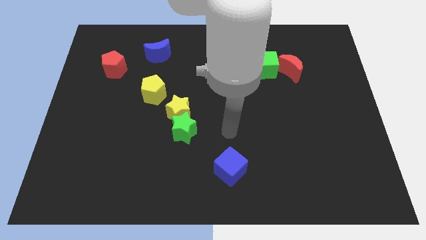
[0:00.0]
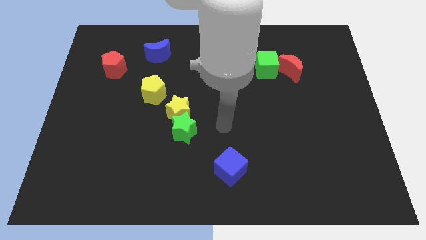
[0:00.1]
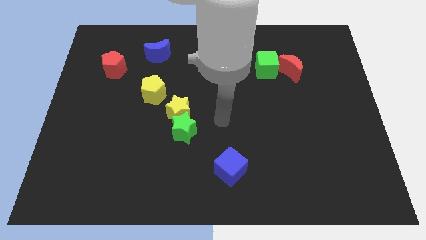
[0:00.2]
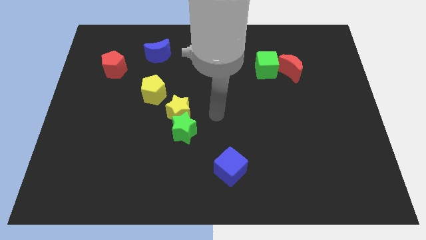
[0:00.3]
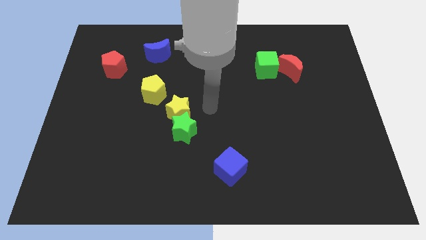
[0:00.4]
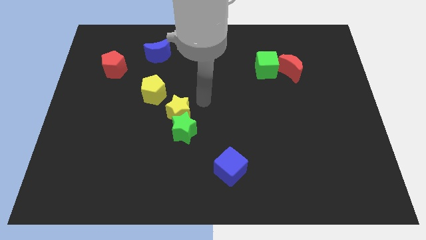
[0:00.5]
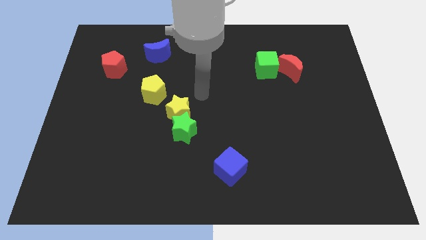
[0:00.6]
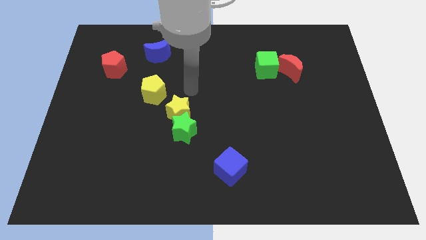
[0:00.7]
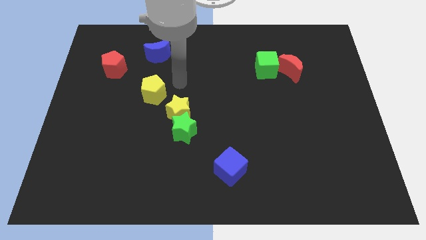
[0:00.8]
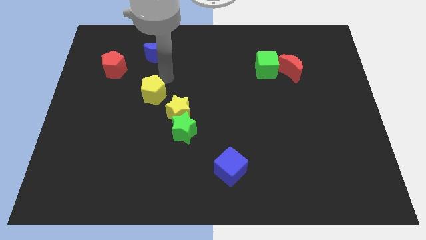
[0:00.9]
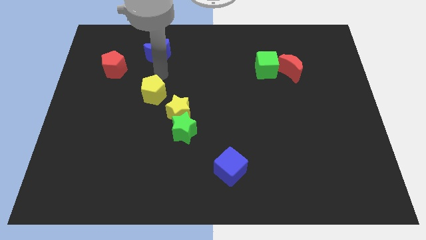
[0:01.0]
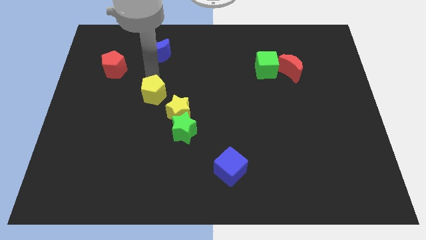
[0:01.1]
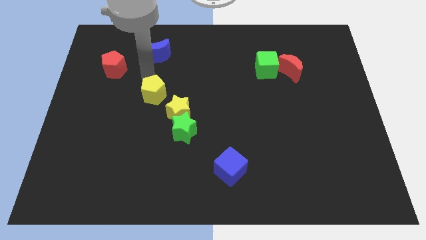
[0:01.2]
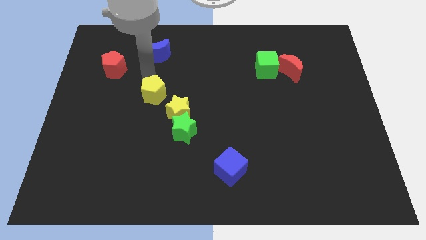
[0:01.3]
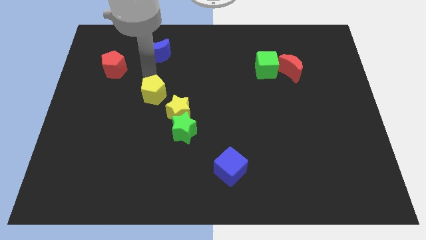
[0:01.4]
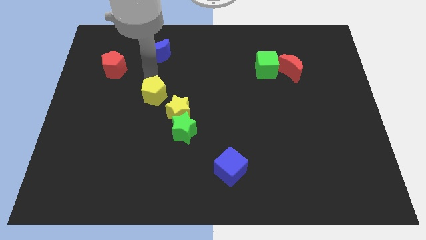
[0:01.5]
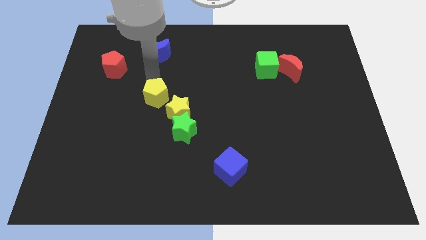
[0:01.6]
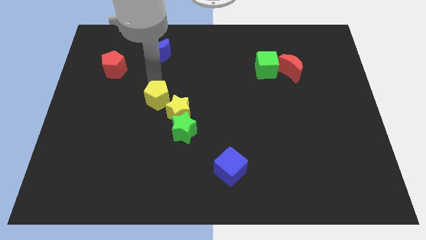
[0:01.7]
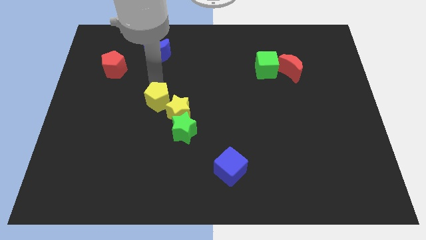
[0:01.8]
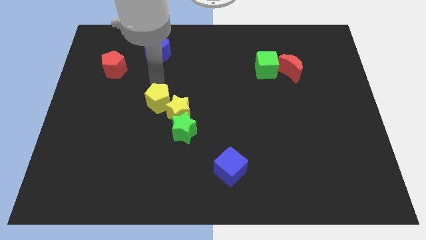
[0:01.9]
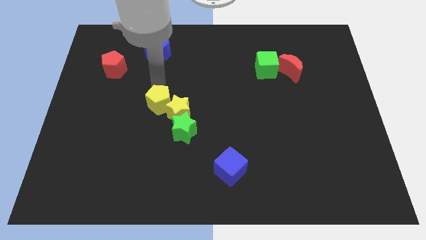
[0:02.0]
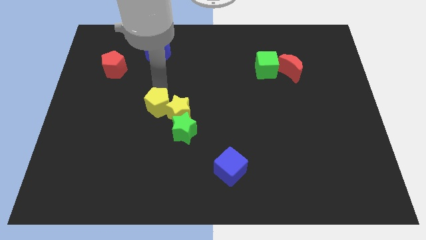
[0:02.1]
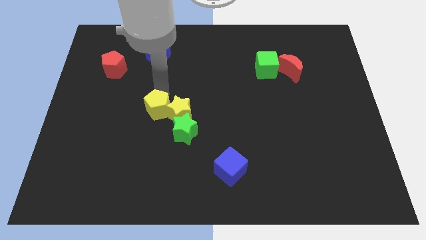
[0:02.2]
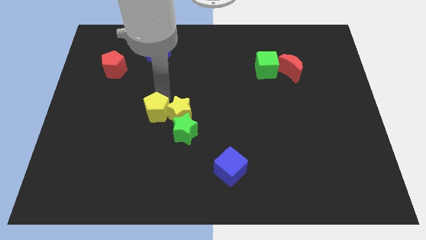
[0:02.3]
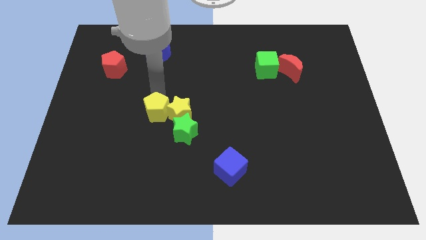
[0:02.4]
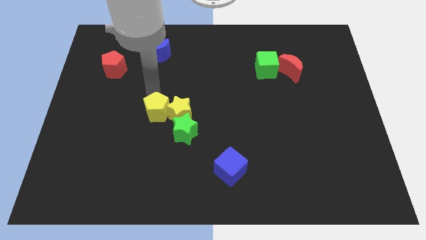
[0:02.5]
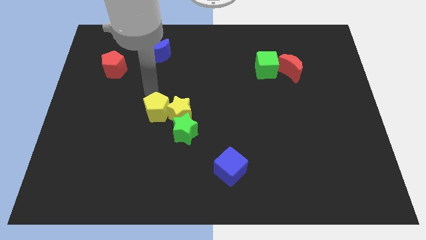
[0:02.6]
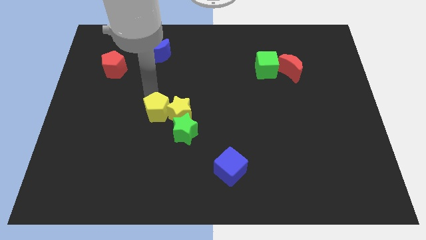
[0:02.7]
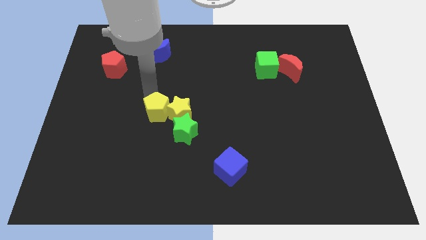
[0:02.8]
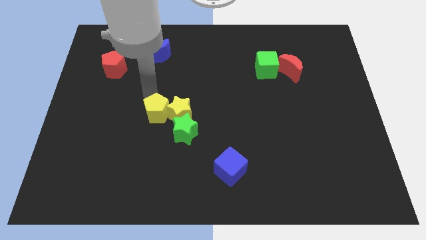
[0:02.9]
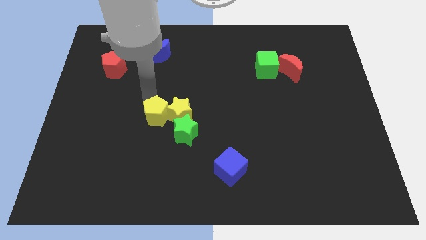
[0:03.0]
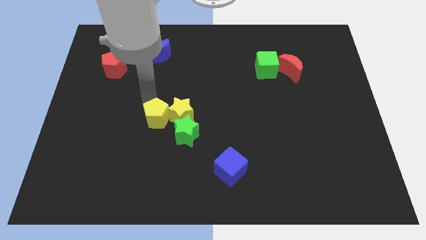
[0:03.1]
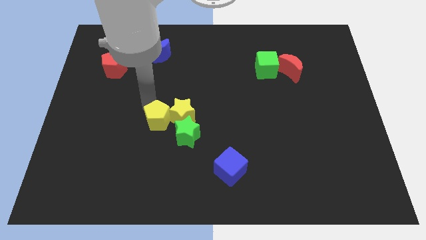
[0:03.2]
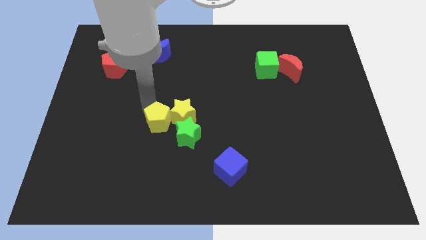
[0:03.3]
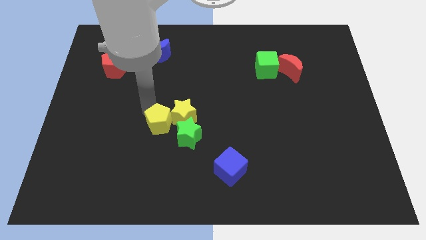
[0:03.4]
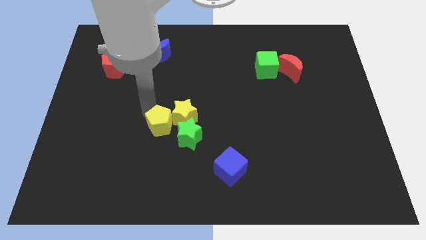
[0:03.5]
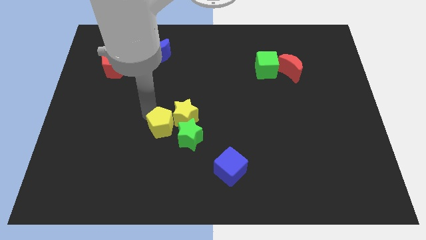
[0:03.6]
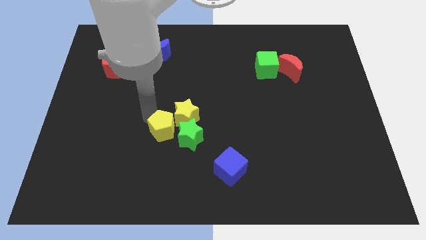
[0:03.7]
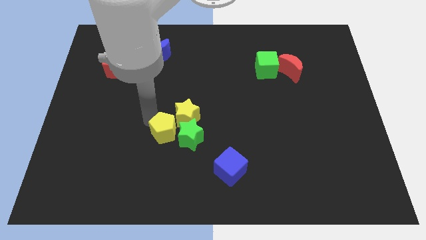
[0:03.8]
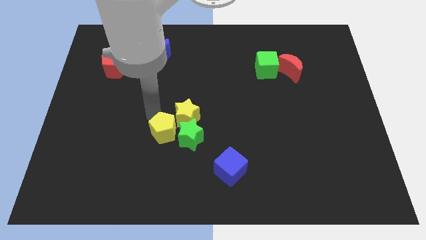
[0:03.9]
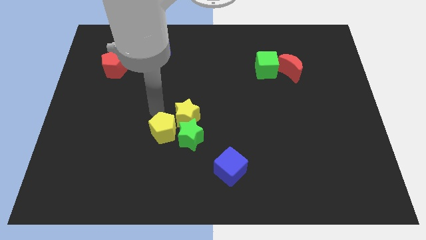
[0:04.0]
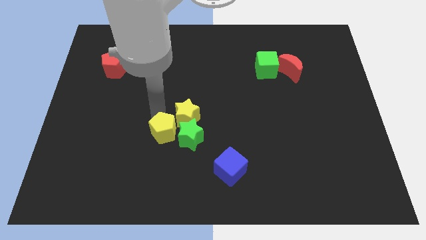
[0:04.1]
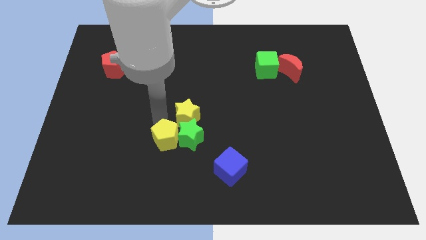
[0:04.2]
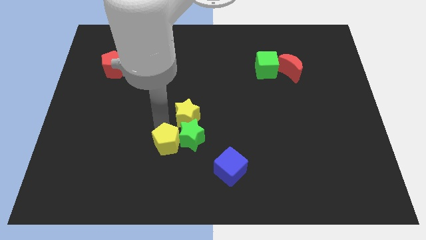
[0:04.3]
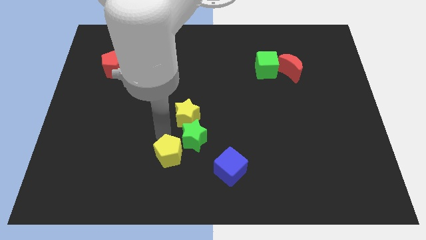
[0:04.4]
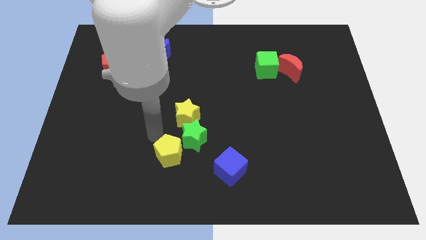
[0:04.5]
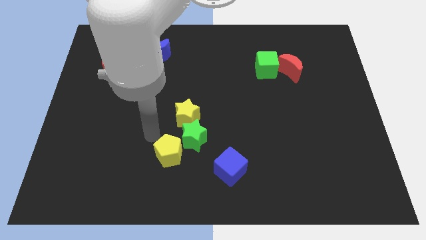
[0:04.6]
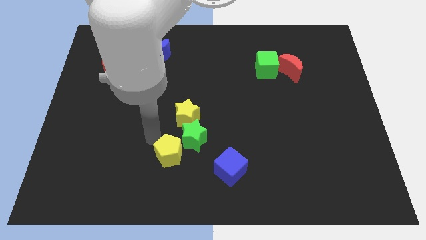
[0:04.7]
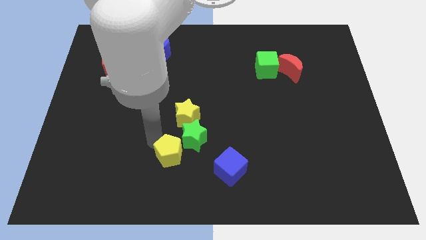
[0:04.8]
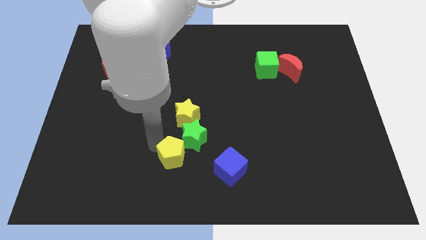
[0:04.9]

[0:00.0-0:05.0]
move the yellow pentagon to the bottom of the green star

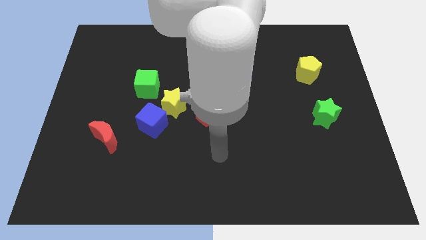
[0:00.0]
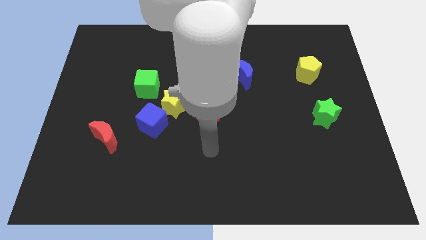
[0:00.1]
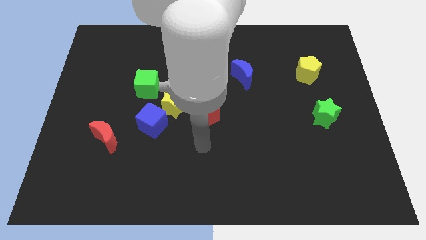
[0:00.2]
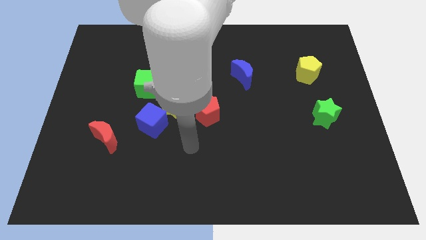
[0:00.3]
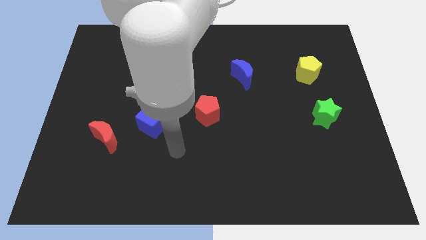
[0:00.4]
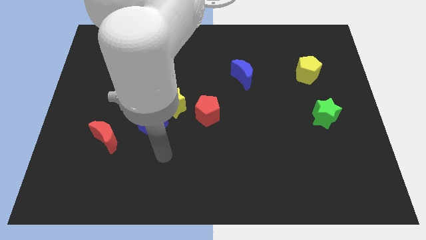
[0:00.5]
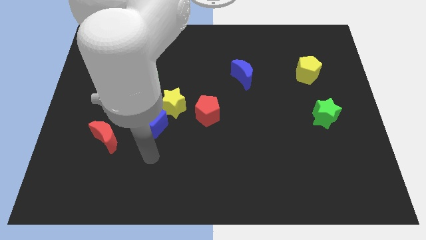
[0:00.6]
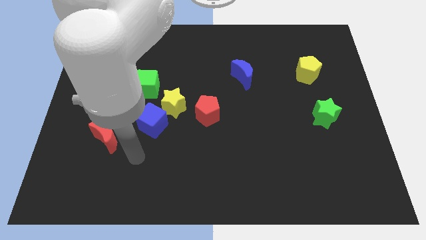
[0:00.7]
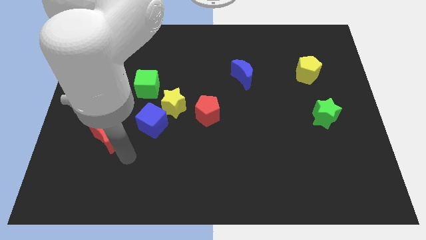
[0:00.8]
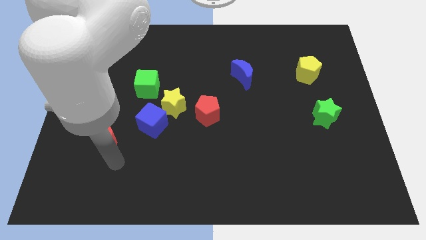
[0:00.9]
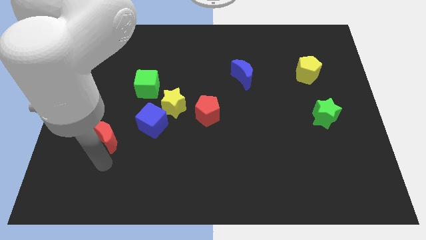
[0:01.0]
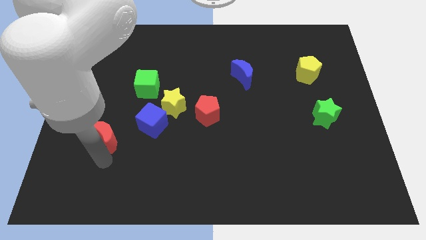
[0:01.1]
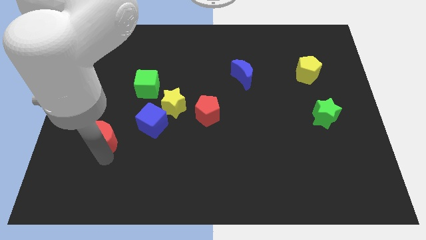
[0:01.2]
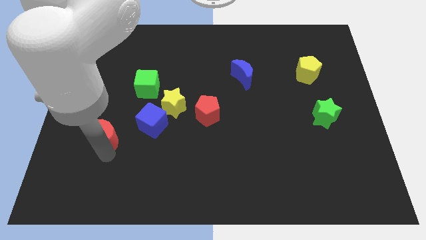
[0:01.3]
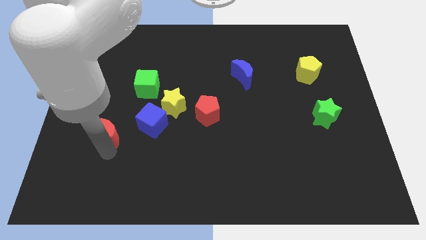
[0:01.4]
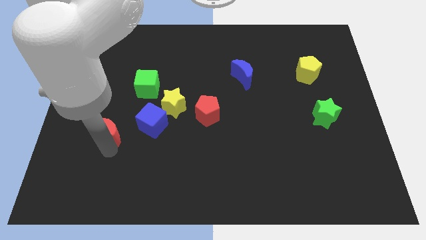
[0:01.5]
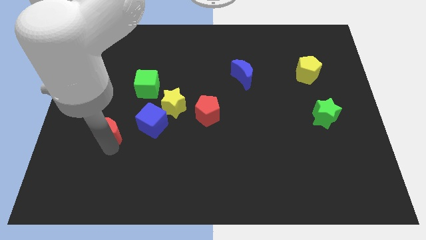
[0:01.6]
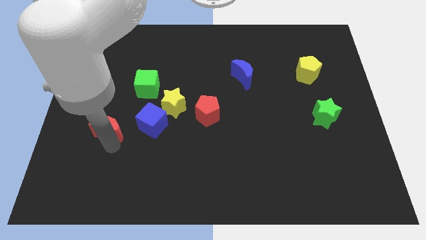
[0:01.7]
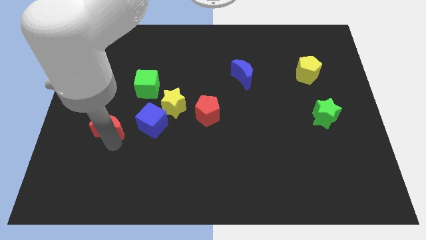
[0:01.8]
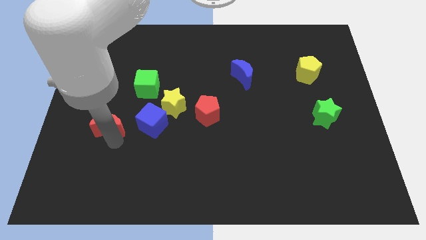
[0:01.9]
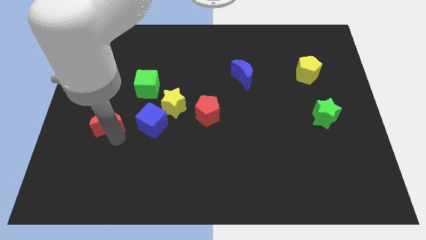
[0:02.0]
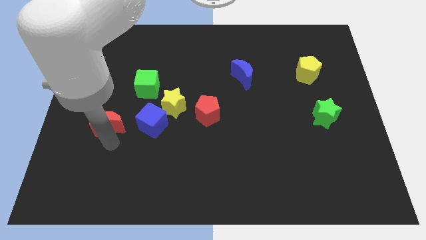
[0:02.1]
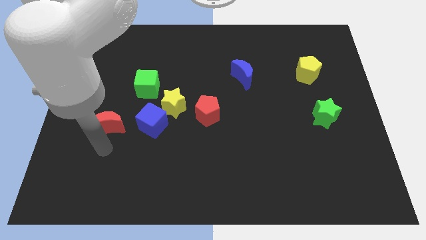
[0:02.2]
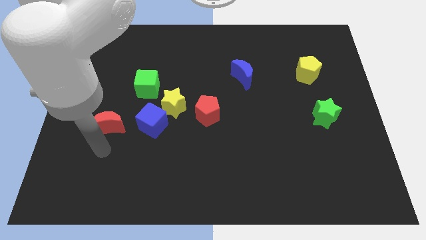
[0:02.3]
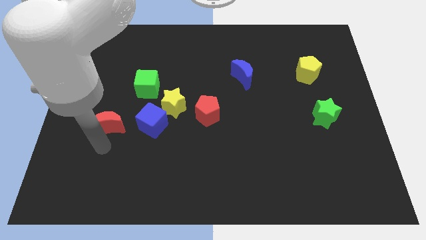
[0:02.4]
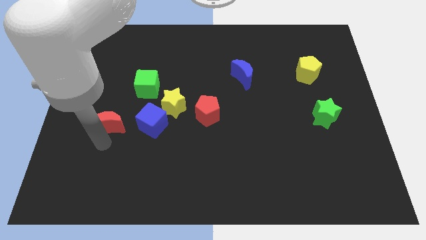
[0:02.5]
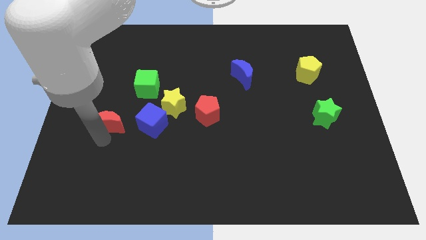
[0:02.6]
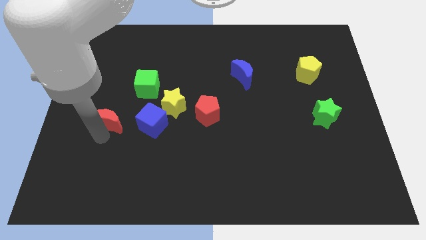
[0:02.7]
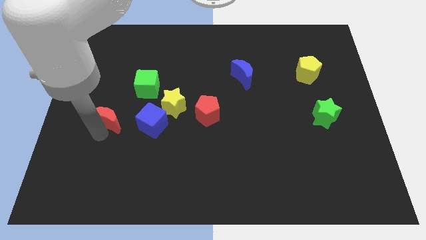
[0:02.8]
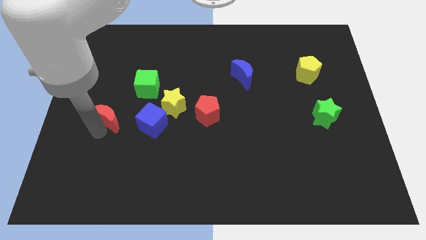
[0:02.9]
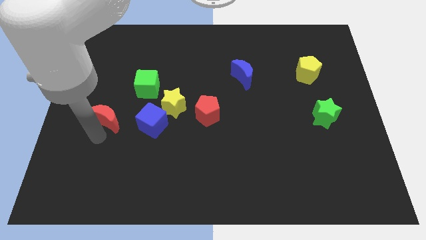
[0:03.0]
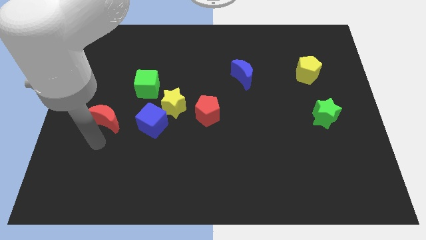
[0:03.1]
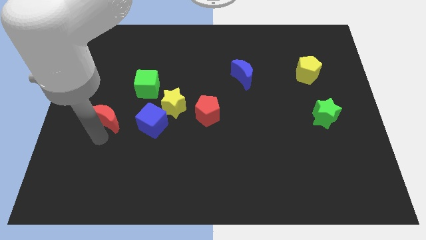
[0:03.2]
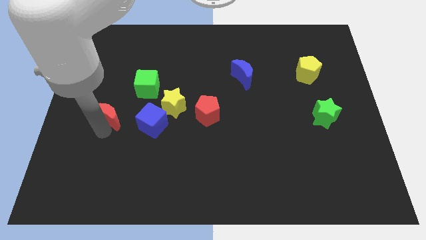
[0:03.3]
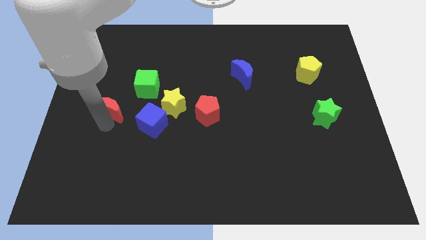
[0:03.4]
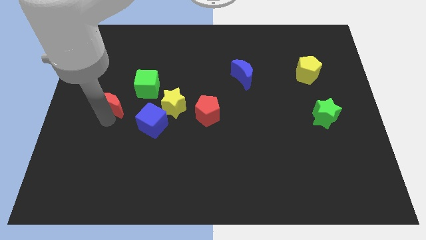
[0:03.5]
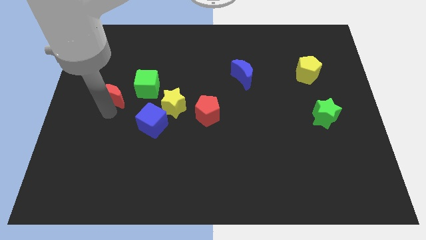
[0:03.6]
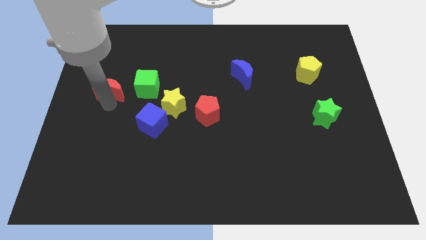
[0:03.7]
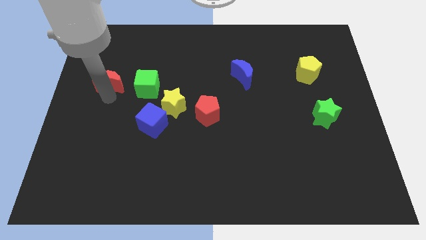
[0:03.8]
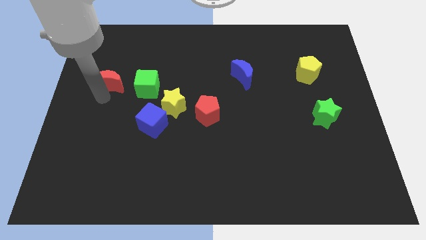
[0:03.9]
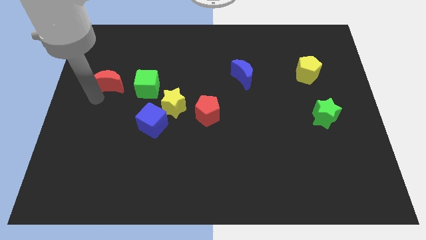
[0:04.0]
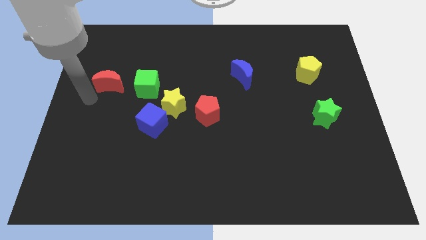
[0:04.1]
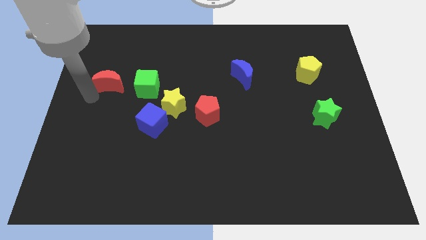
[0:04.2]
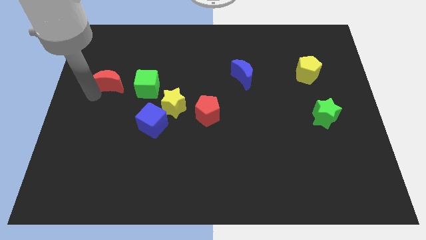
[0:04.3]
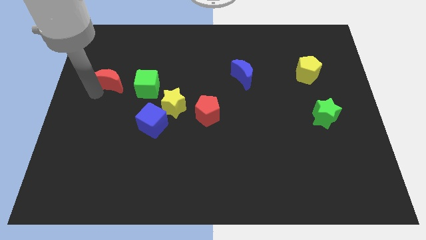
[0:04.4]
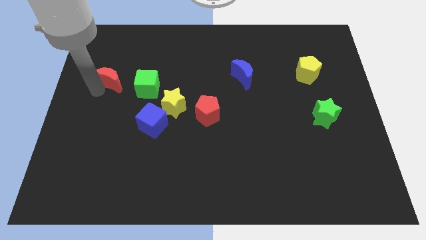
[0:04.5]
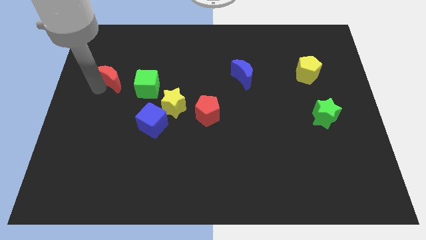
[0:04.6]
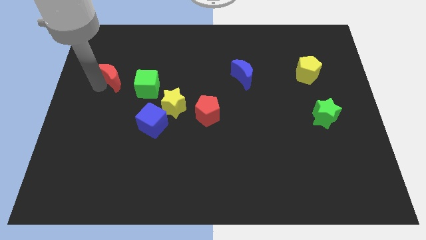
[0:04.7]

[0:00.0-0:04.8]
move the red moon to the top left side of the green cube
